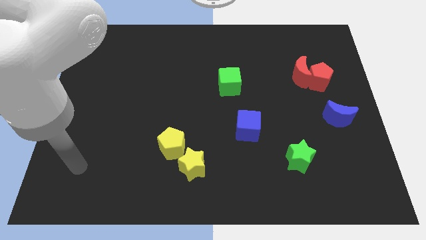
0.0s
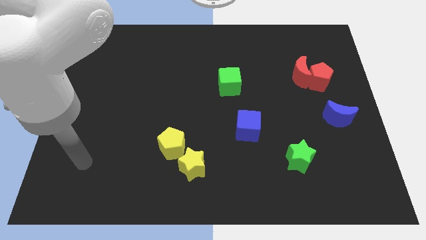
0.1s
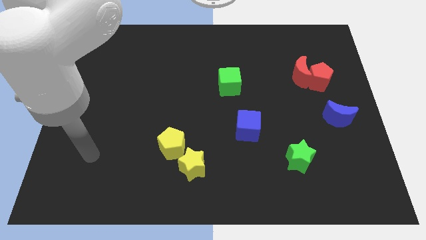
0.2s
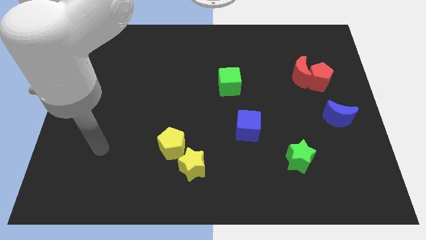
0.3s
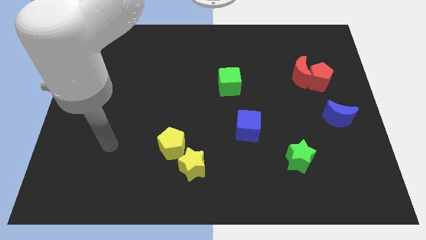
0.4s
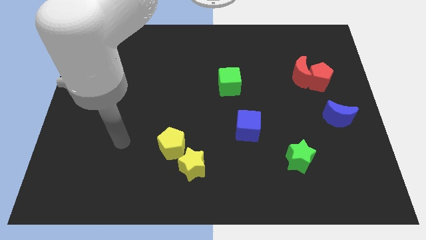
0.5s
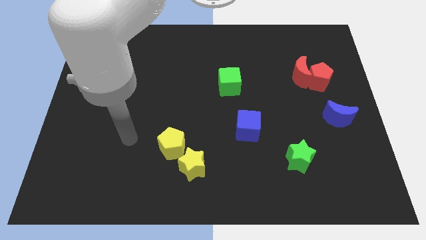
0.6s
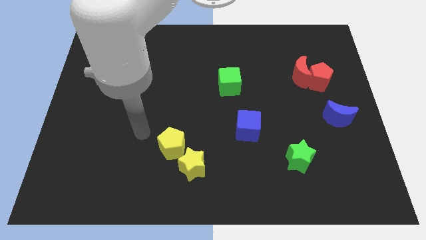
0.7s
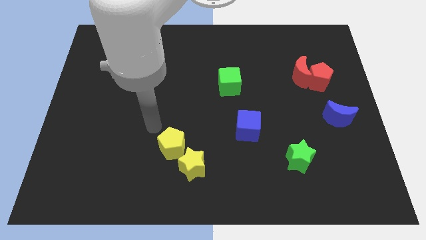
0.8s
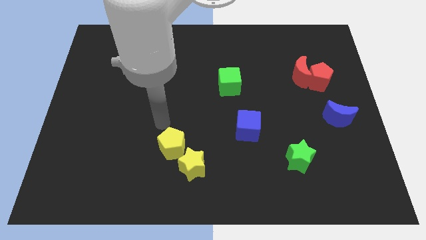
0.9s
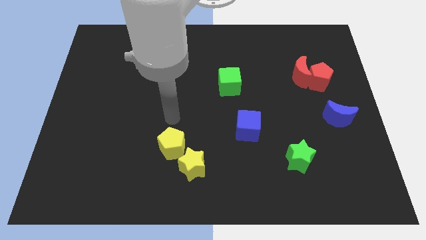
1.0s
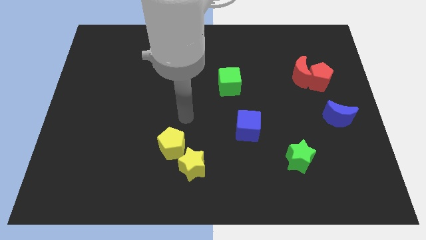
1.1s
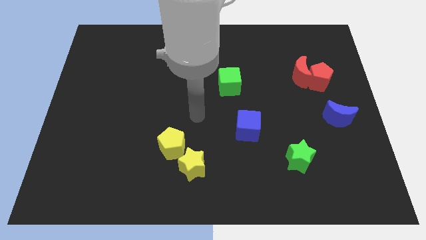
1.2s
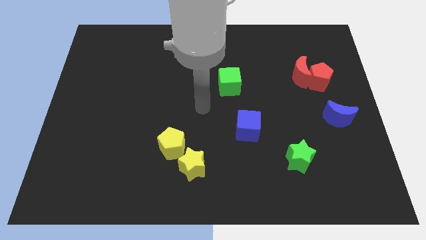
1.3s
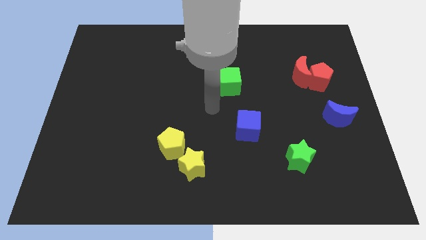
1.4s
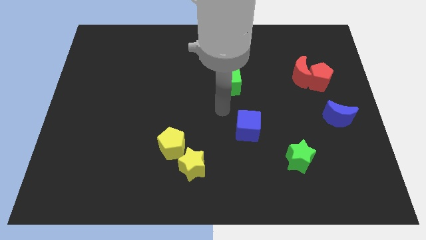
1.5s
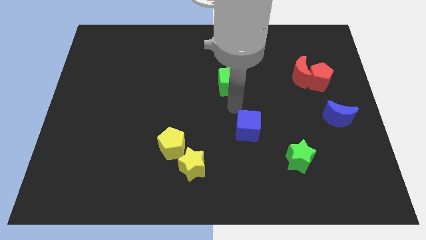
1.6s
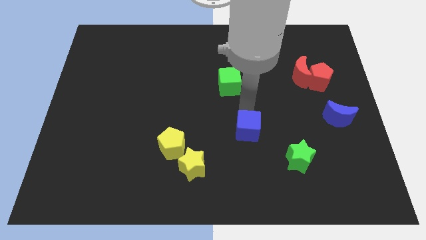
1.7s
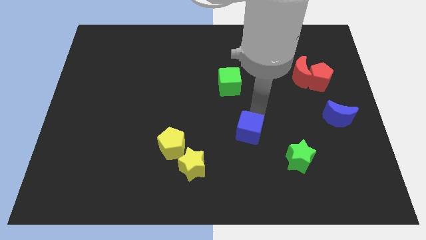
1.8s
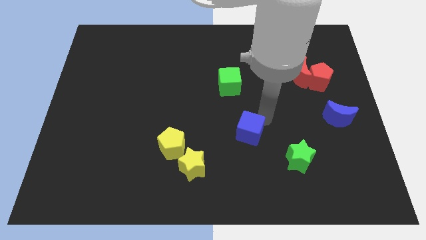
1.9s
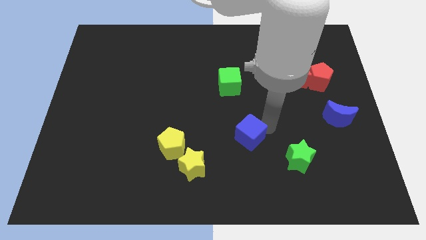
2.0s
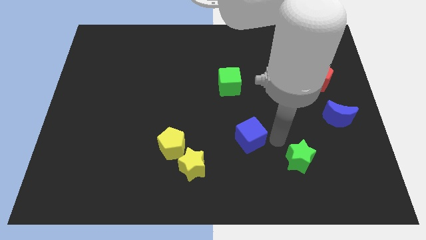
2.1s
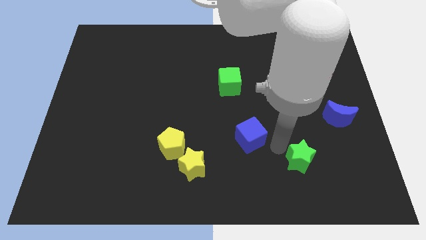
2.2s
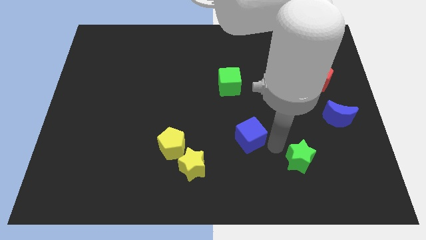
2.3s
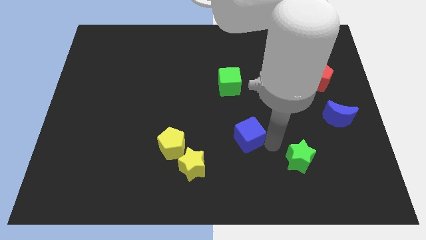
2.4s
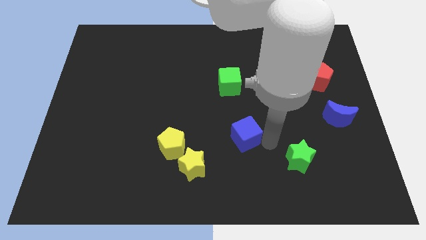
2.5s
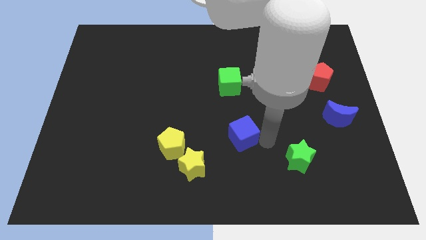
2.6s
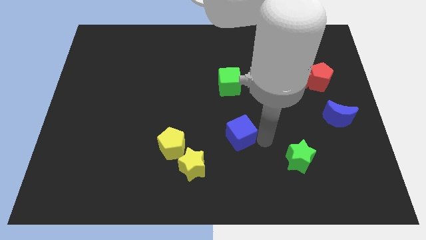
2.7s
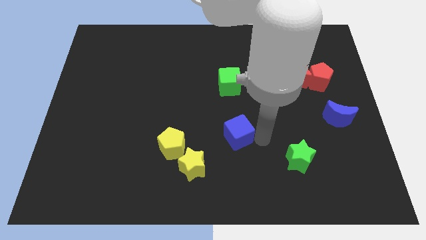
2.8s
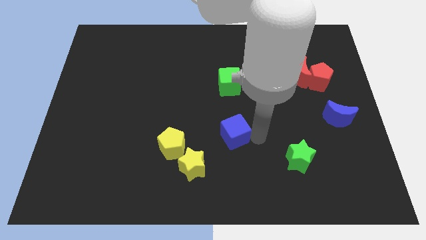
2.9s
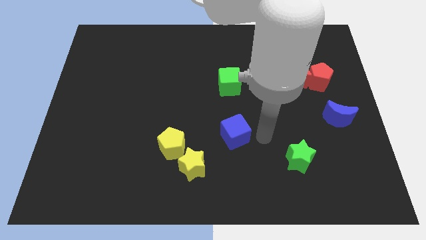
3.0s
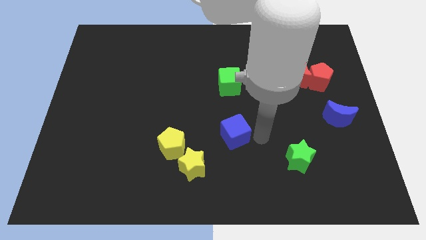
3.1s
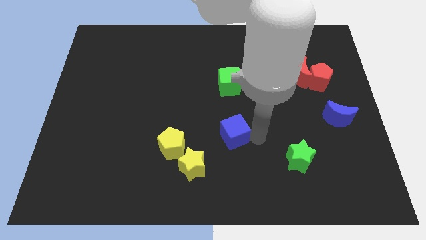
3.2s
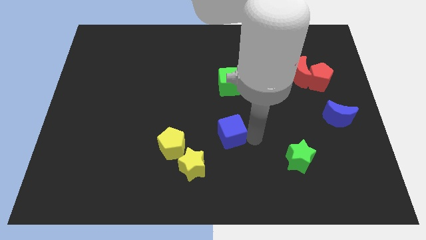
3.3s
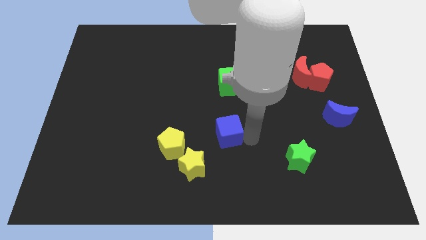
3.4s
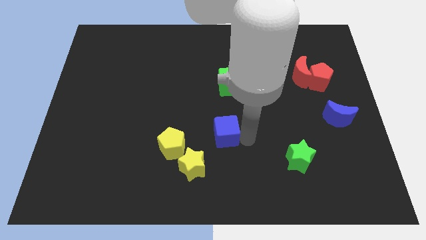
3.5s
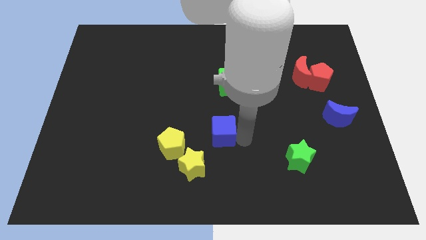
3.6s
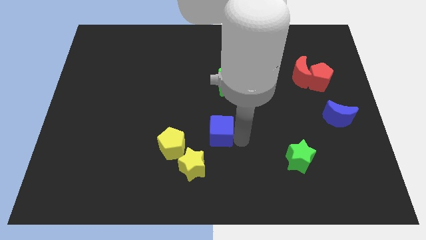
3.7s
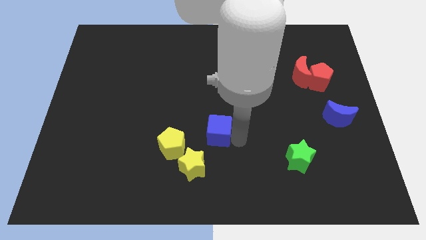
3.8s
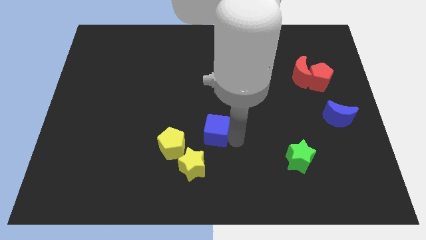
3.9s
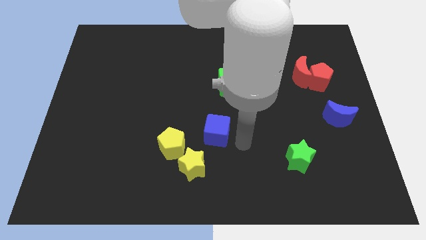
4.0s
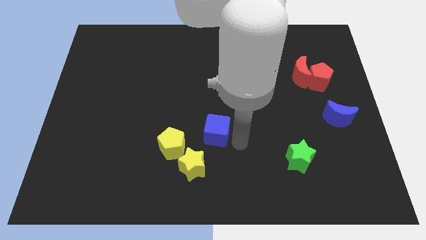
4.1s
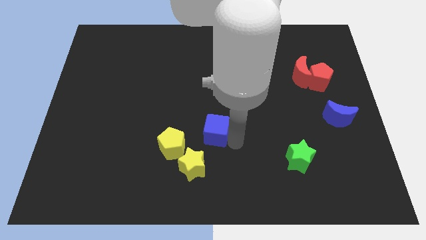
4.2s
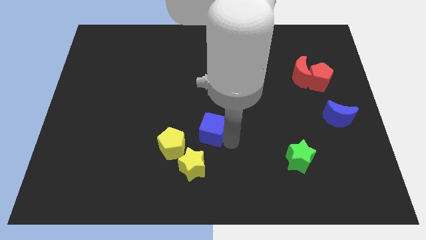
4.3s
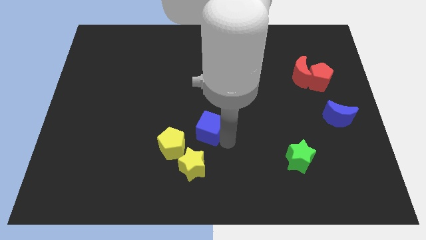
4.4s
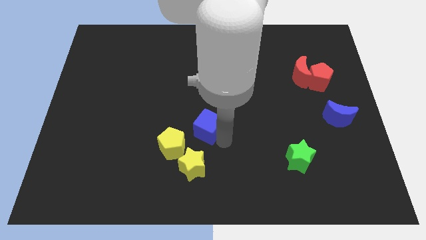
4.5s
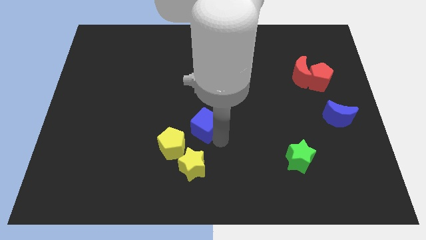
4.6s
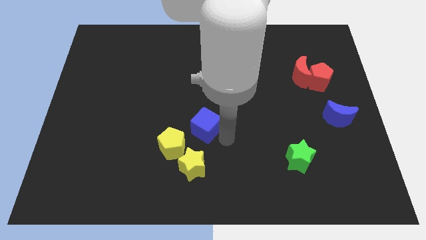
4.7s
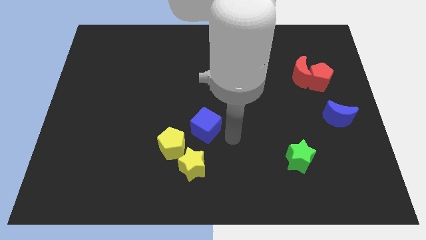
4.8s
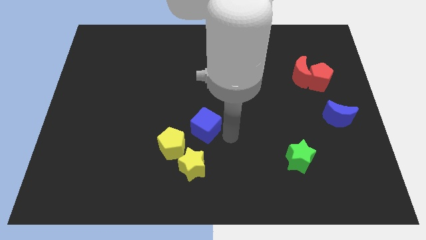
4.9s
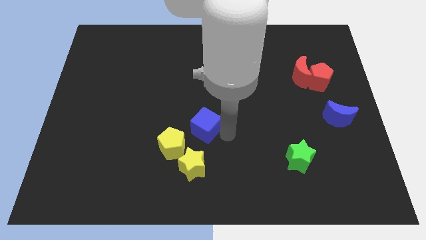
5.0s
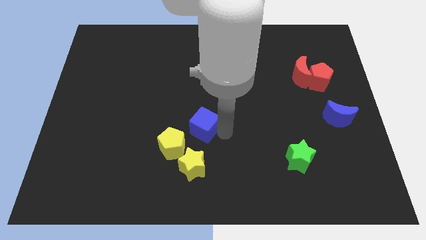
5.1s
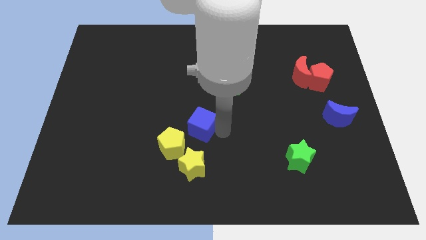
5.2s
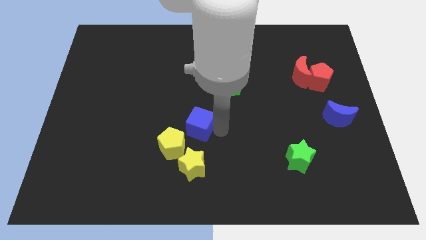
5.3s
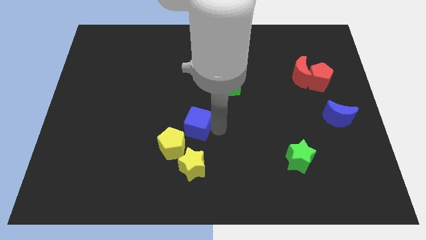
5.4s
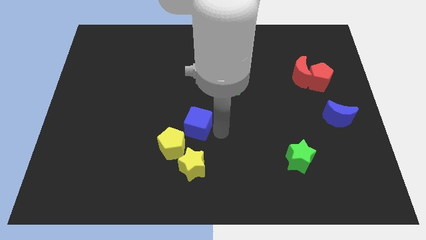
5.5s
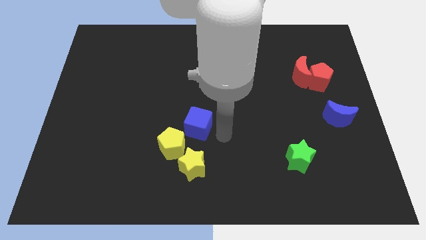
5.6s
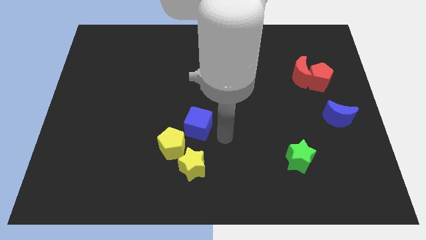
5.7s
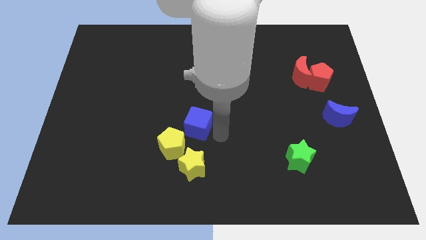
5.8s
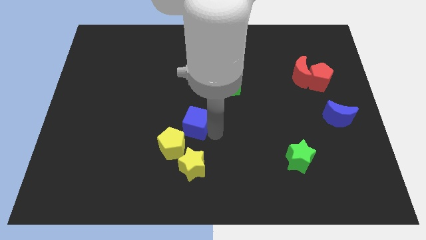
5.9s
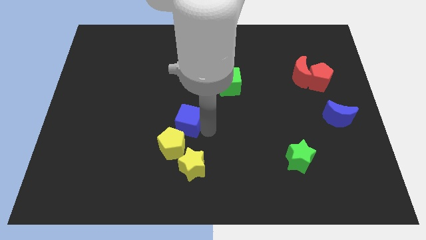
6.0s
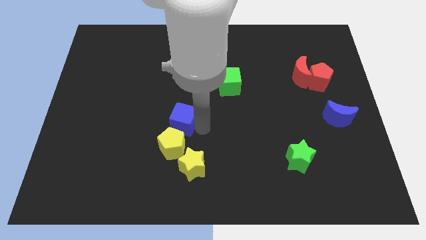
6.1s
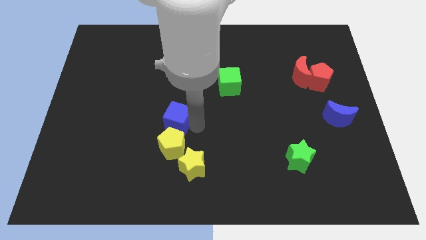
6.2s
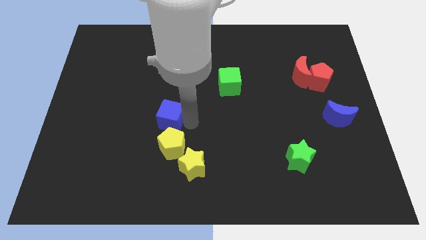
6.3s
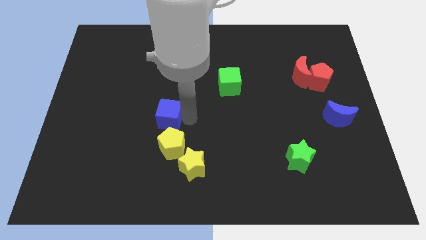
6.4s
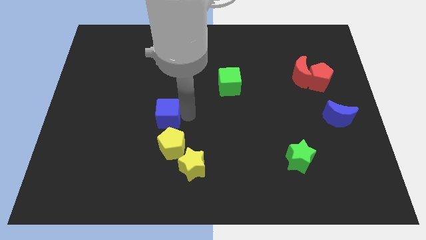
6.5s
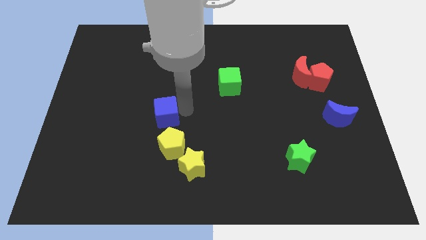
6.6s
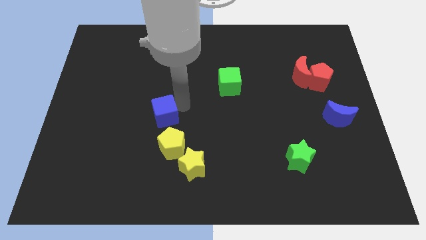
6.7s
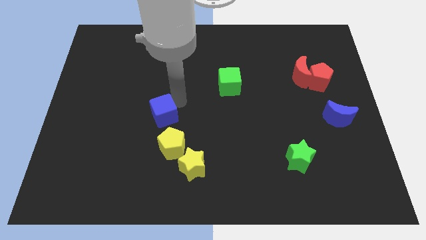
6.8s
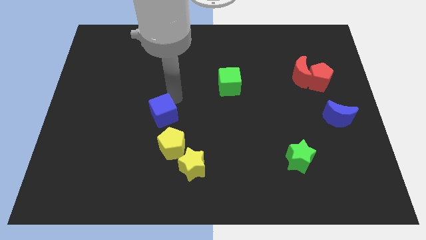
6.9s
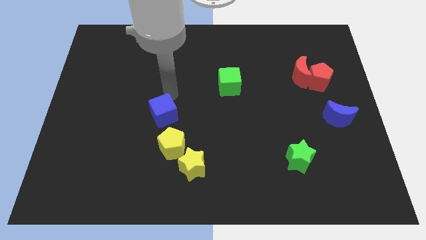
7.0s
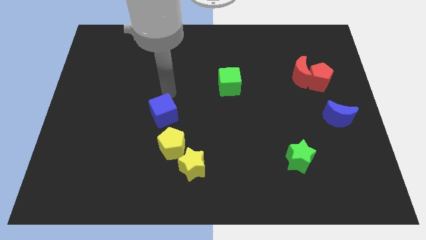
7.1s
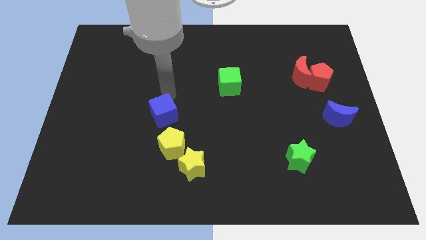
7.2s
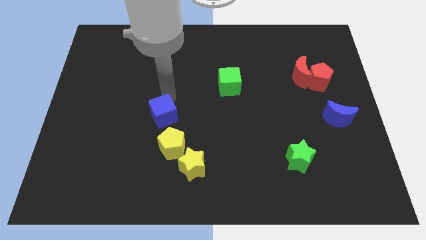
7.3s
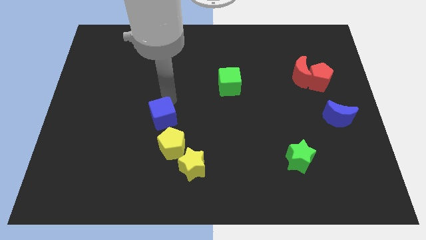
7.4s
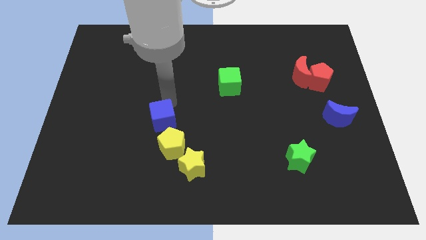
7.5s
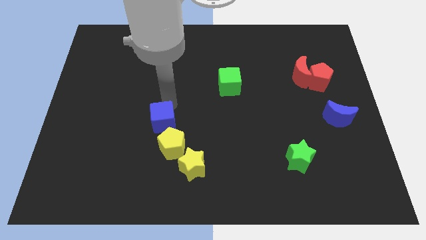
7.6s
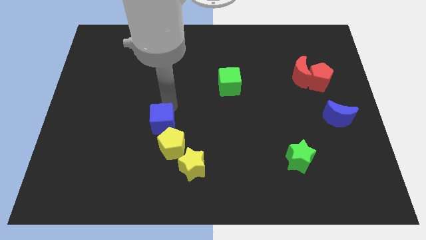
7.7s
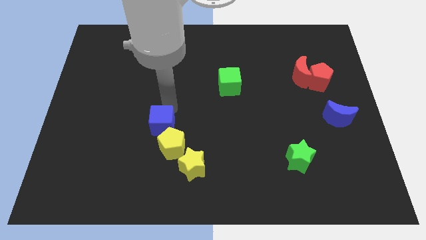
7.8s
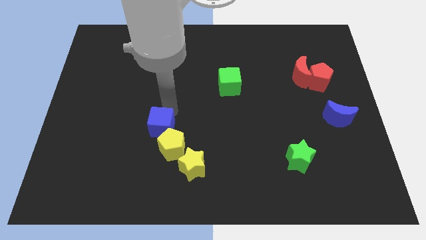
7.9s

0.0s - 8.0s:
slide the blue cube diagonally up and to the left of the yellow star
